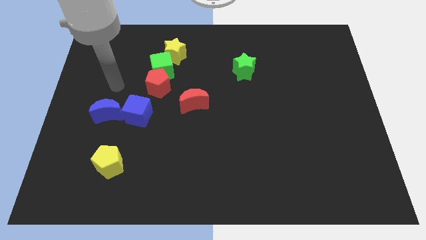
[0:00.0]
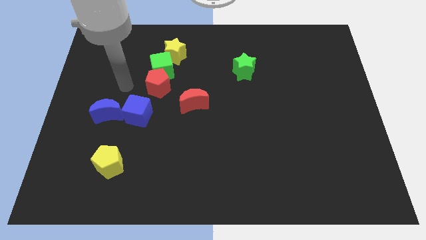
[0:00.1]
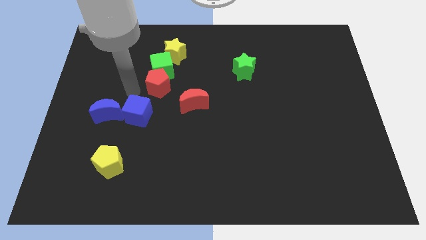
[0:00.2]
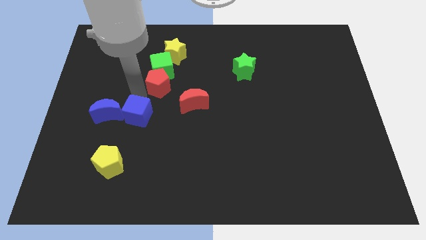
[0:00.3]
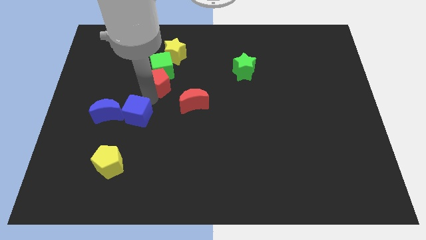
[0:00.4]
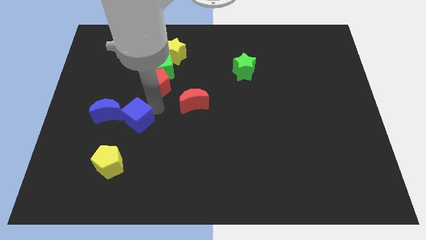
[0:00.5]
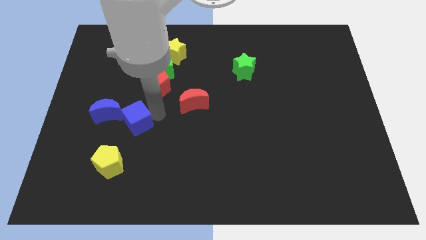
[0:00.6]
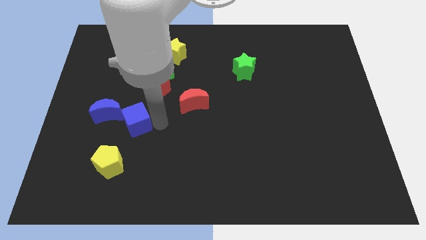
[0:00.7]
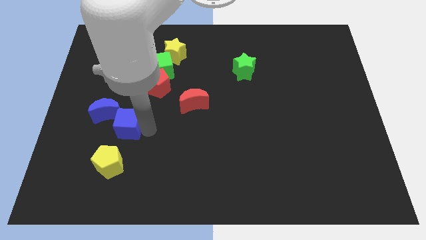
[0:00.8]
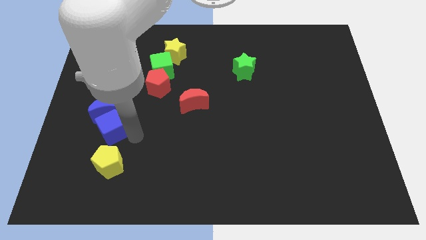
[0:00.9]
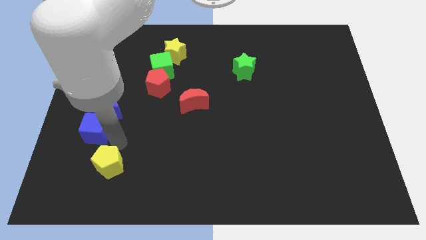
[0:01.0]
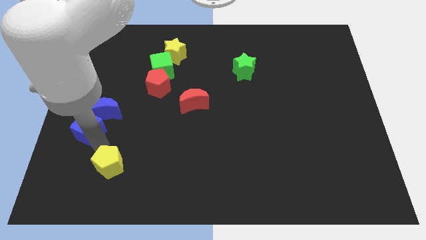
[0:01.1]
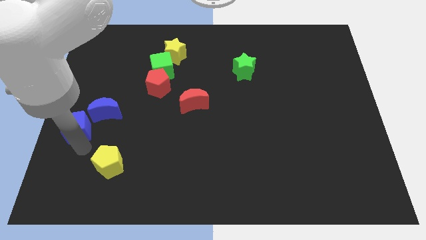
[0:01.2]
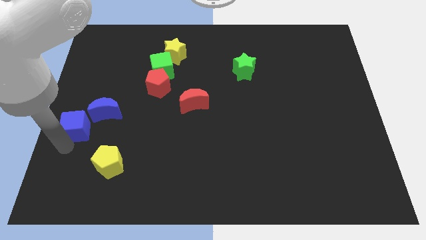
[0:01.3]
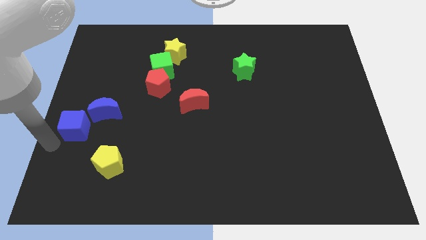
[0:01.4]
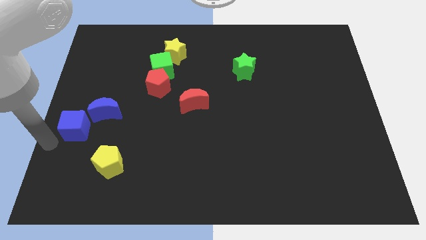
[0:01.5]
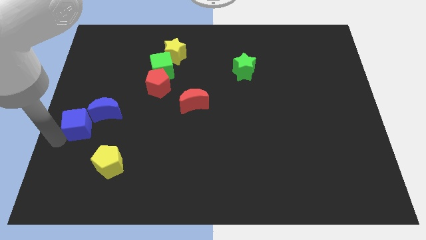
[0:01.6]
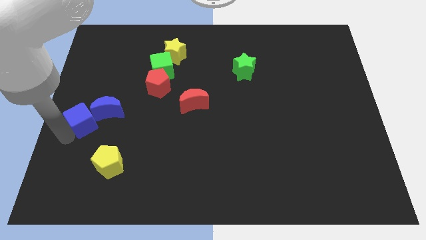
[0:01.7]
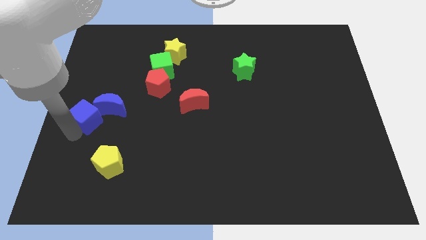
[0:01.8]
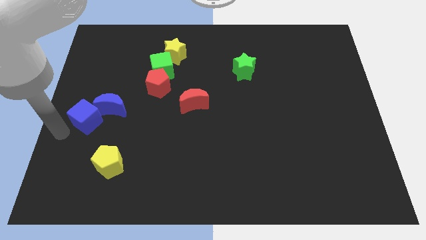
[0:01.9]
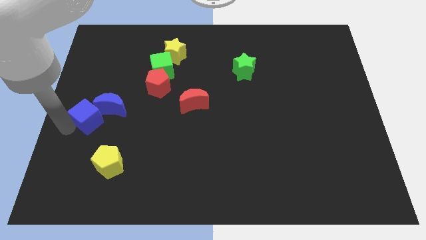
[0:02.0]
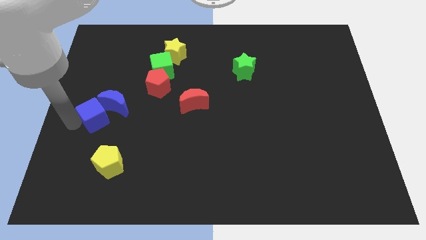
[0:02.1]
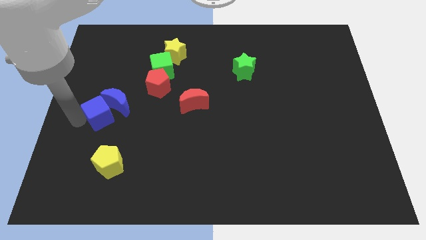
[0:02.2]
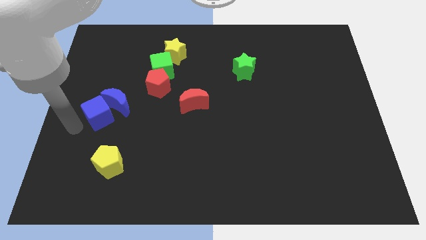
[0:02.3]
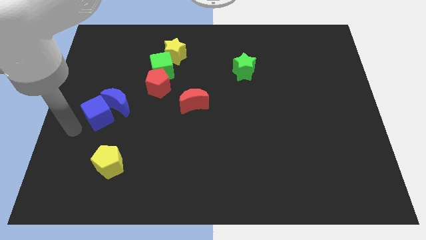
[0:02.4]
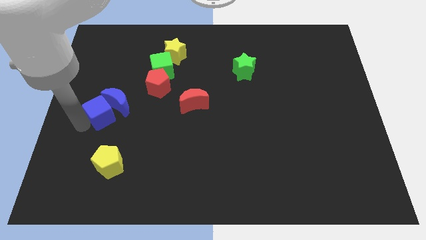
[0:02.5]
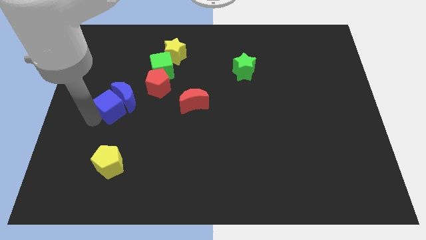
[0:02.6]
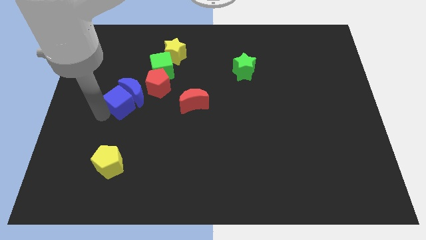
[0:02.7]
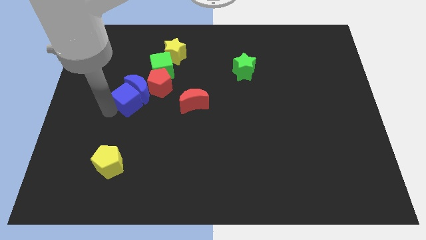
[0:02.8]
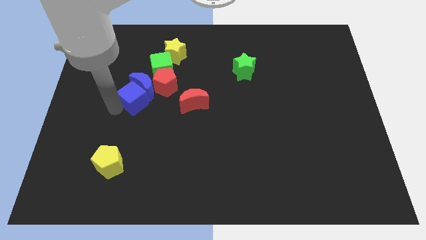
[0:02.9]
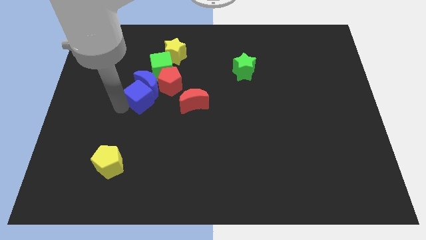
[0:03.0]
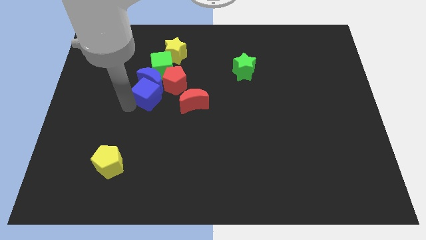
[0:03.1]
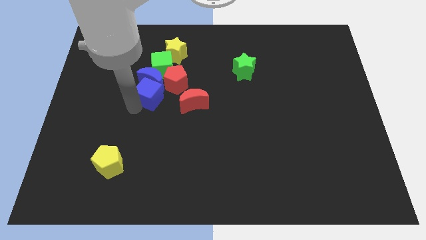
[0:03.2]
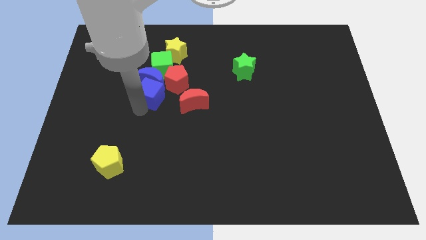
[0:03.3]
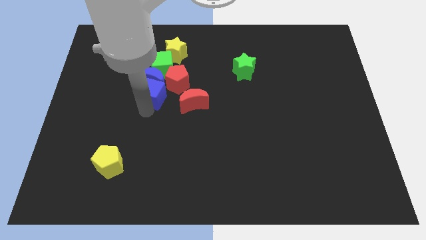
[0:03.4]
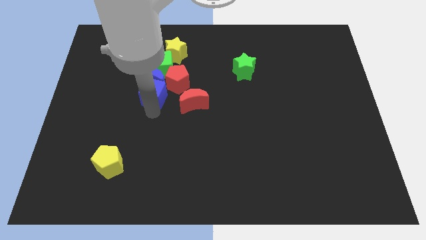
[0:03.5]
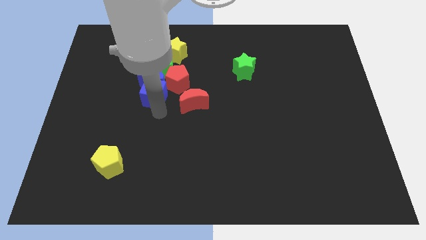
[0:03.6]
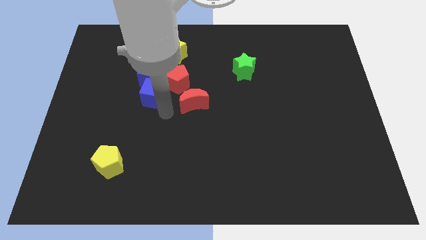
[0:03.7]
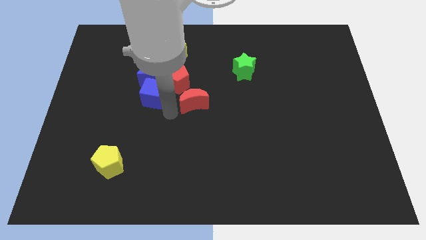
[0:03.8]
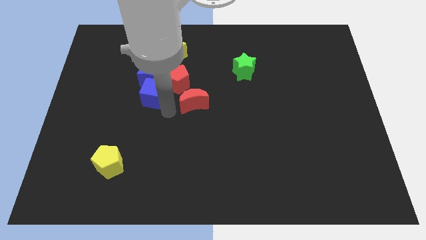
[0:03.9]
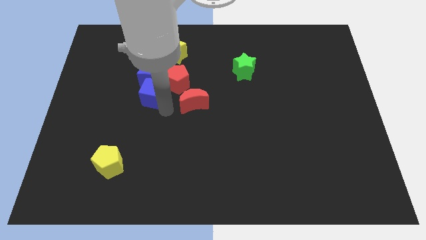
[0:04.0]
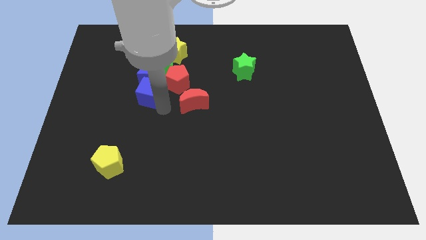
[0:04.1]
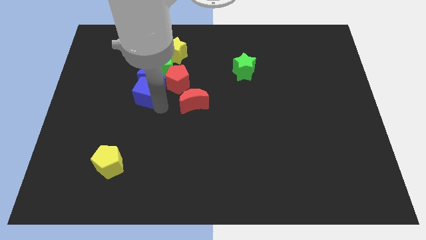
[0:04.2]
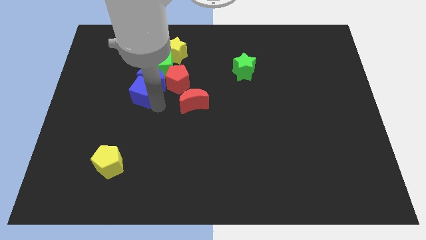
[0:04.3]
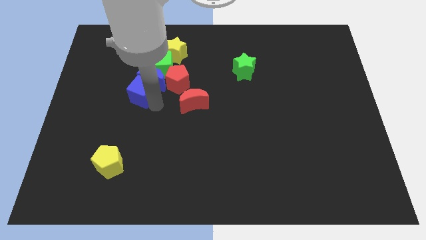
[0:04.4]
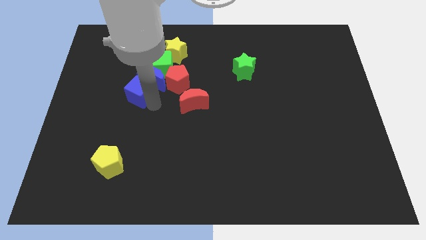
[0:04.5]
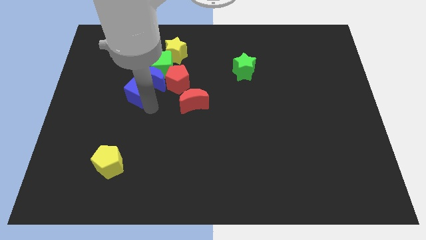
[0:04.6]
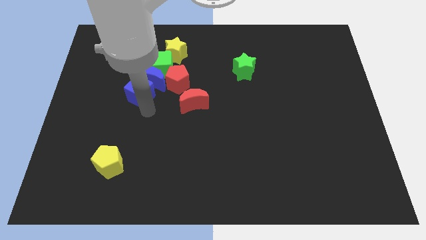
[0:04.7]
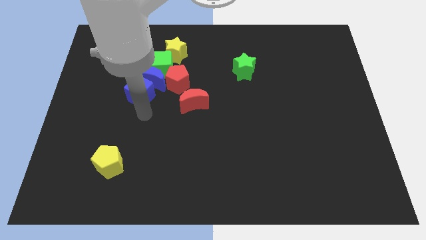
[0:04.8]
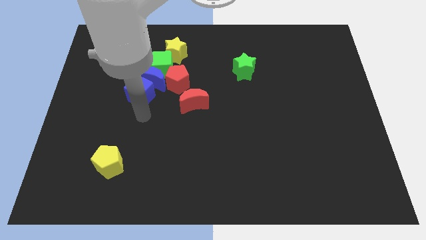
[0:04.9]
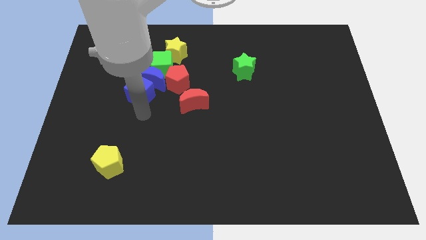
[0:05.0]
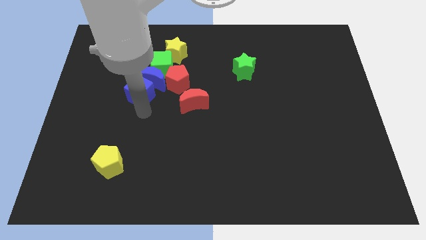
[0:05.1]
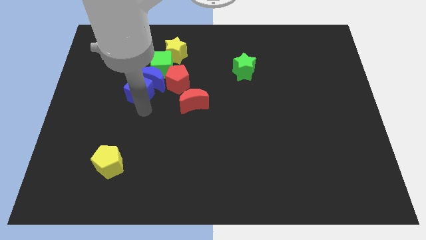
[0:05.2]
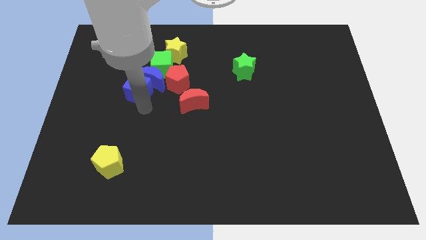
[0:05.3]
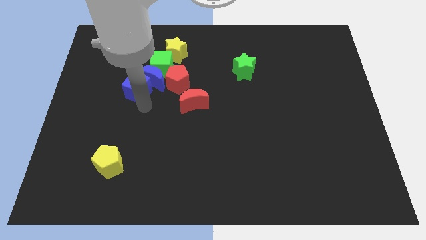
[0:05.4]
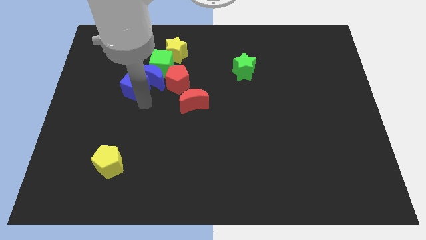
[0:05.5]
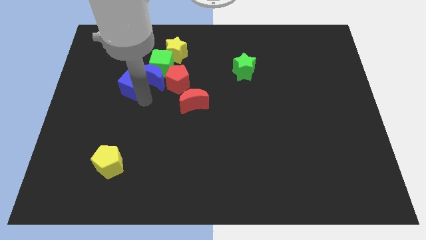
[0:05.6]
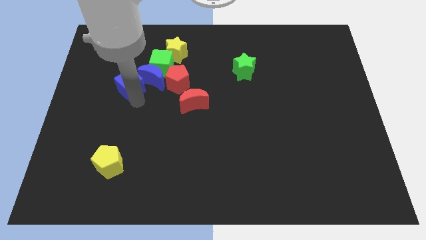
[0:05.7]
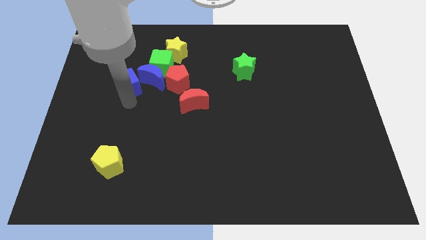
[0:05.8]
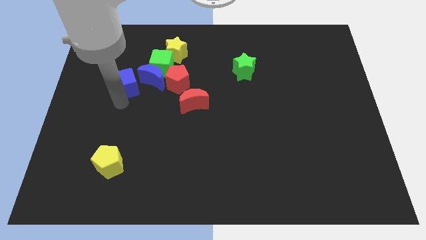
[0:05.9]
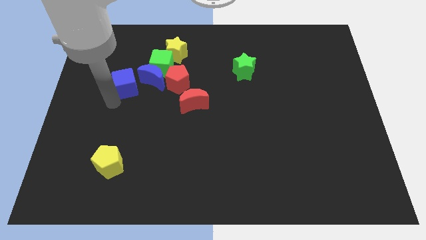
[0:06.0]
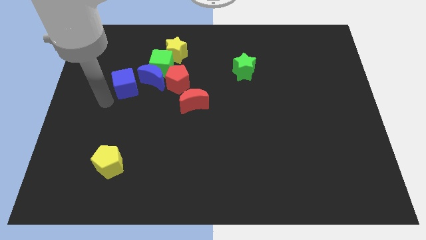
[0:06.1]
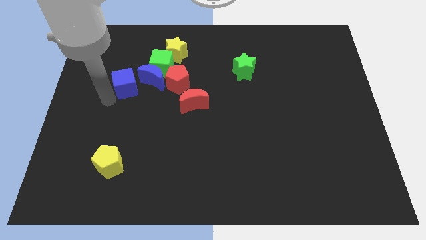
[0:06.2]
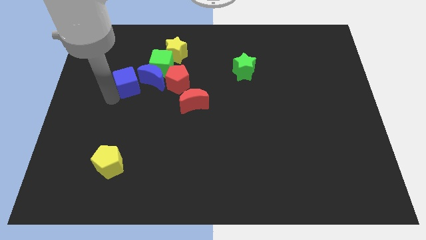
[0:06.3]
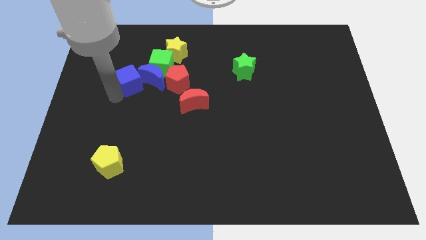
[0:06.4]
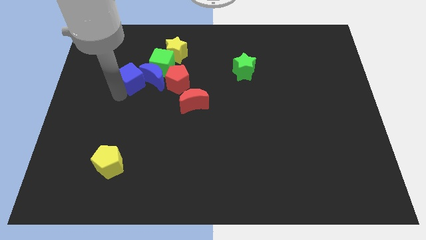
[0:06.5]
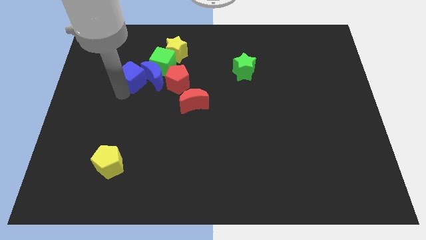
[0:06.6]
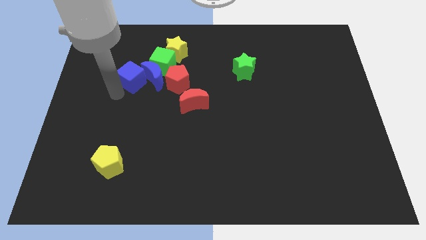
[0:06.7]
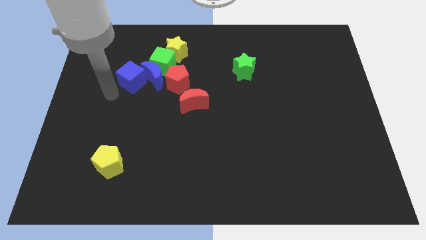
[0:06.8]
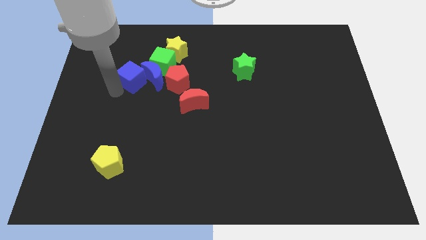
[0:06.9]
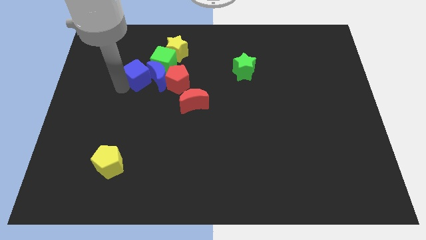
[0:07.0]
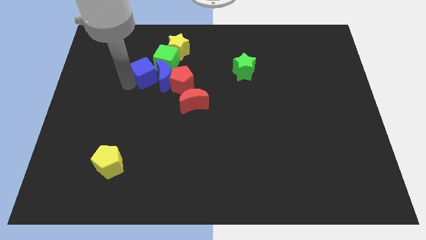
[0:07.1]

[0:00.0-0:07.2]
push the blue cube diagonally down and to the left of the yellow star
